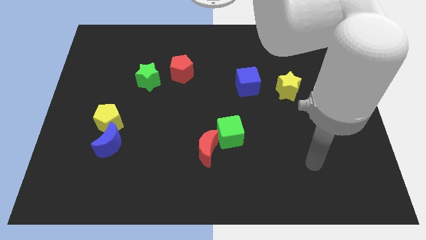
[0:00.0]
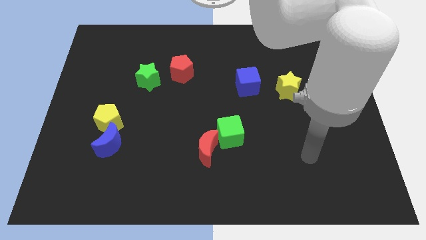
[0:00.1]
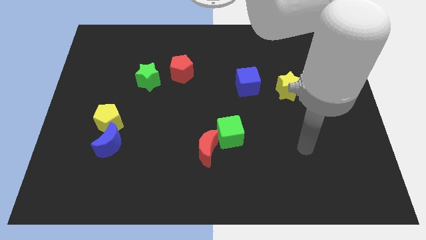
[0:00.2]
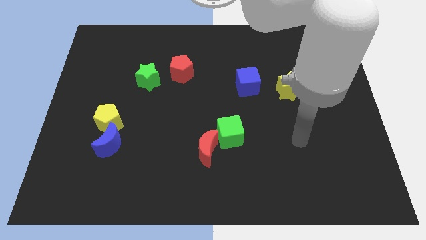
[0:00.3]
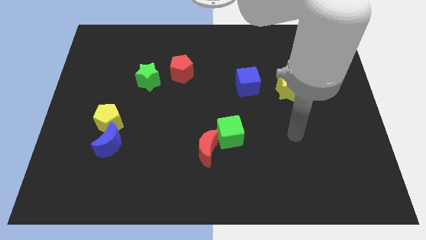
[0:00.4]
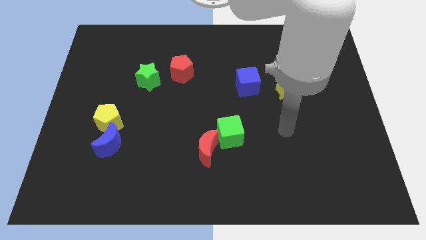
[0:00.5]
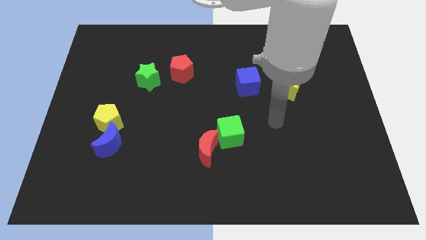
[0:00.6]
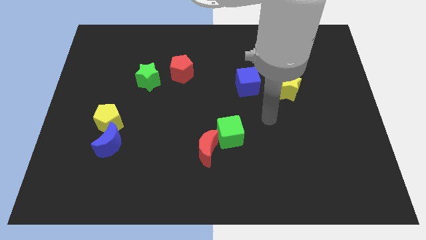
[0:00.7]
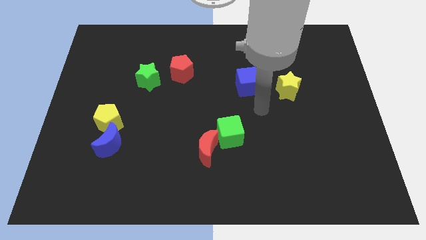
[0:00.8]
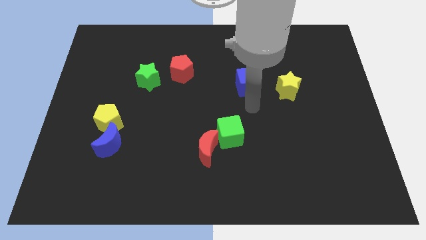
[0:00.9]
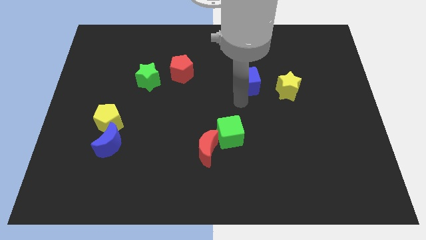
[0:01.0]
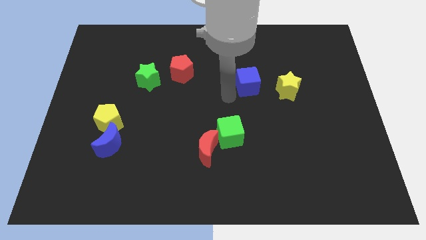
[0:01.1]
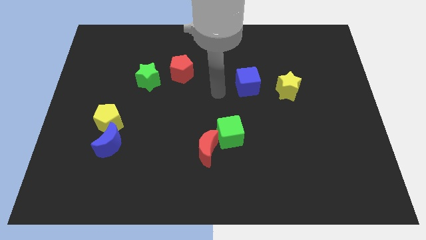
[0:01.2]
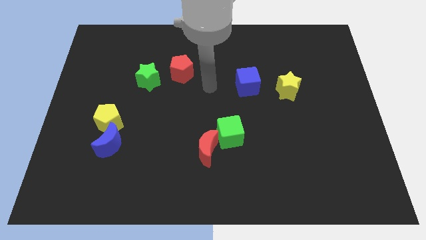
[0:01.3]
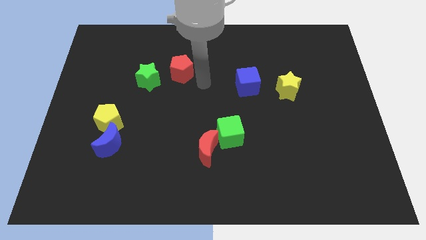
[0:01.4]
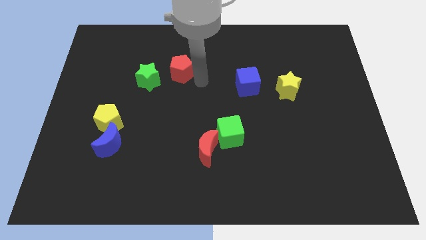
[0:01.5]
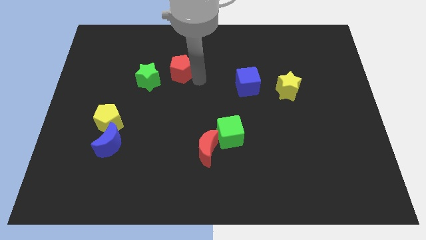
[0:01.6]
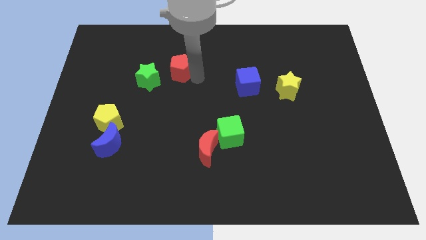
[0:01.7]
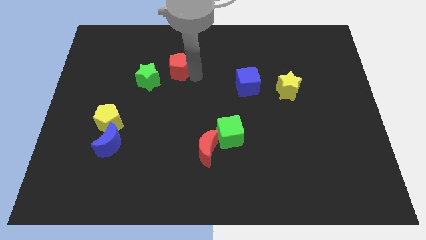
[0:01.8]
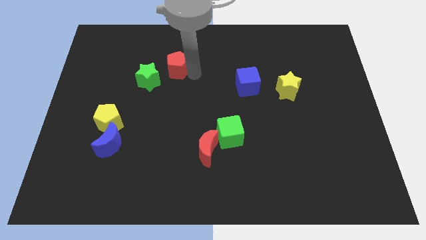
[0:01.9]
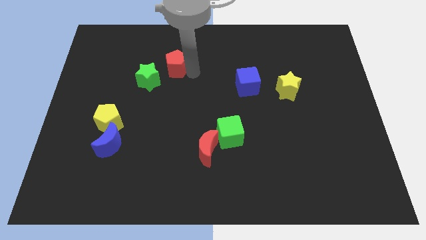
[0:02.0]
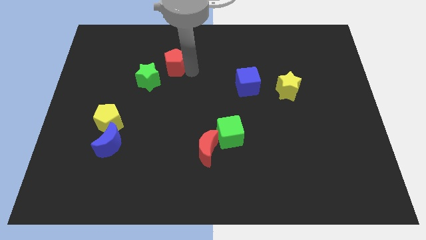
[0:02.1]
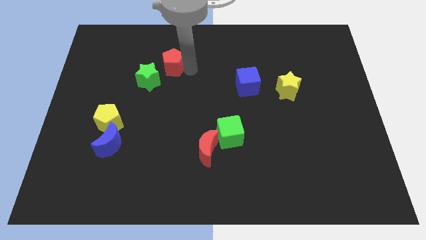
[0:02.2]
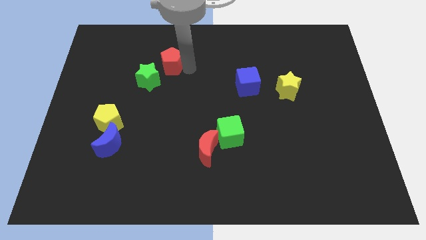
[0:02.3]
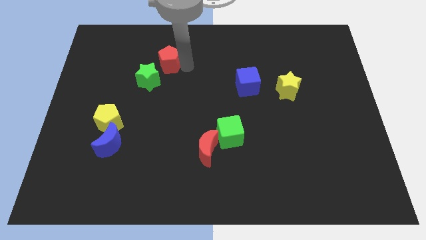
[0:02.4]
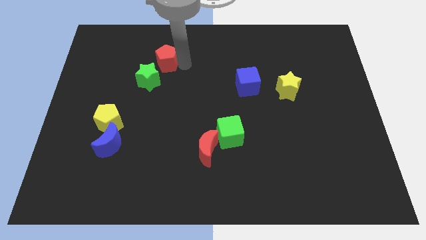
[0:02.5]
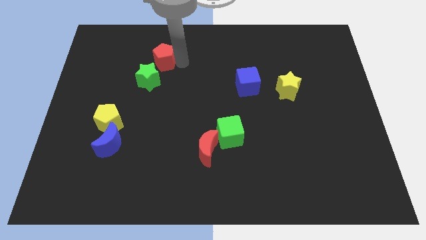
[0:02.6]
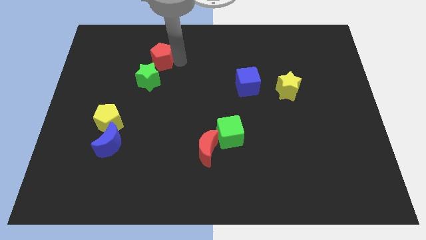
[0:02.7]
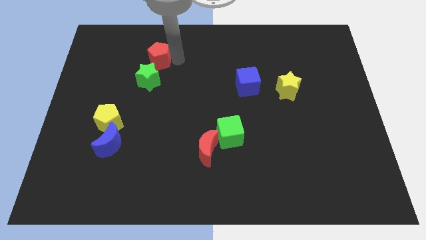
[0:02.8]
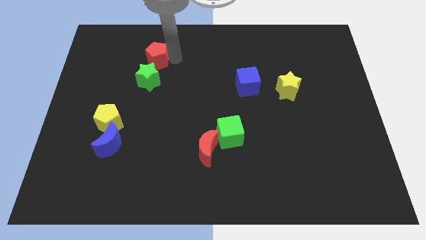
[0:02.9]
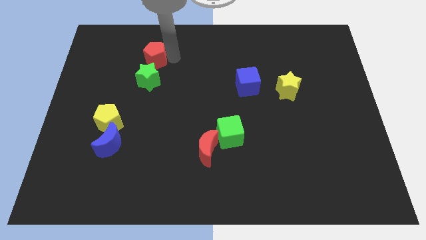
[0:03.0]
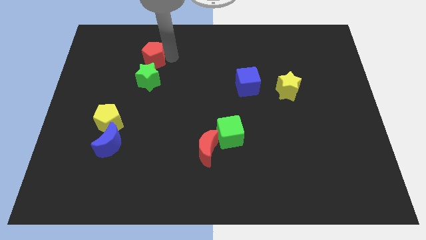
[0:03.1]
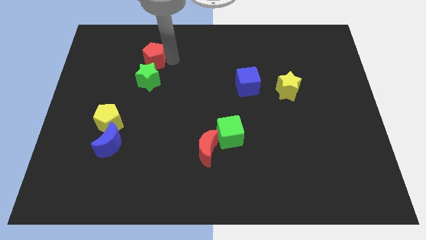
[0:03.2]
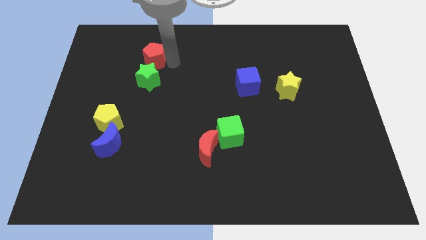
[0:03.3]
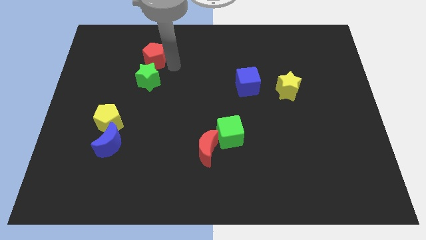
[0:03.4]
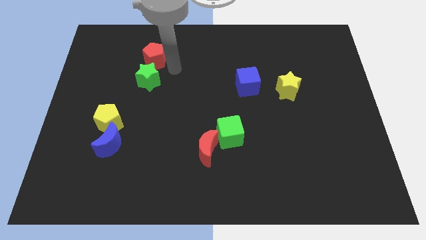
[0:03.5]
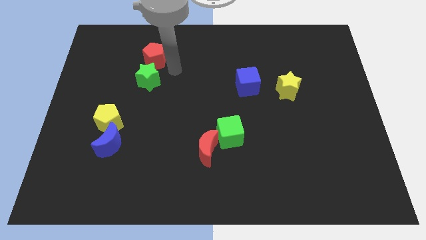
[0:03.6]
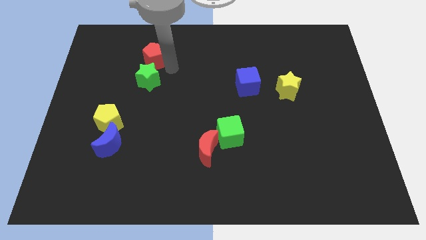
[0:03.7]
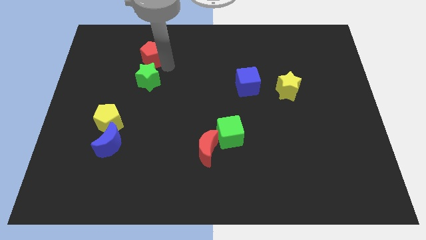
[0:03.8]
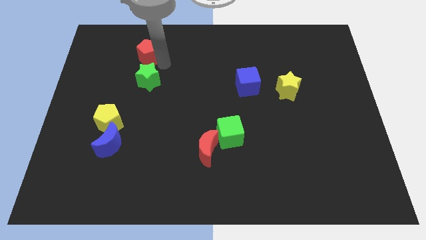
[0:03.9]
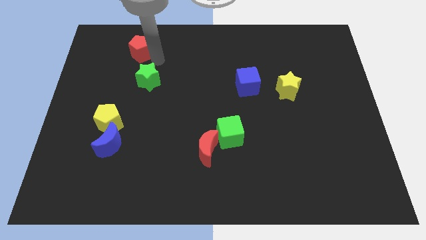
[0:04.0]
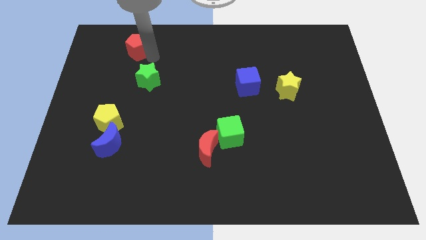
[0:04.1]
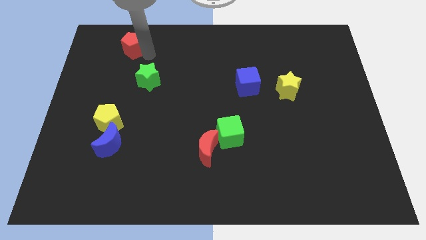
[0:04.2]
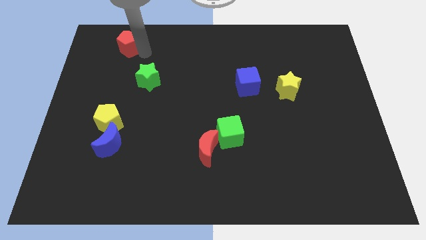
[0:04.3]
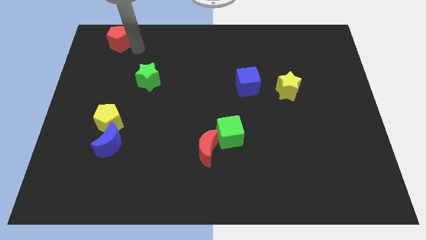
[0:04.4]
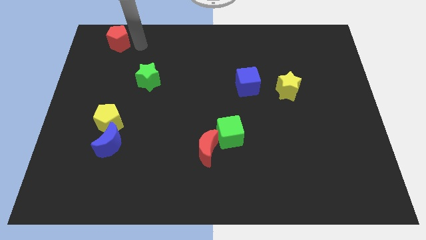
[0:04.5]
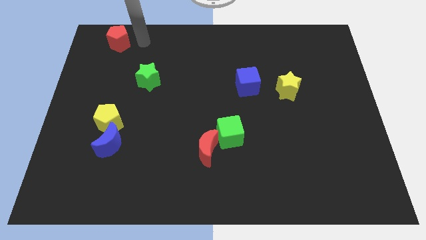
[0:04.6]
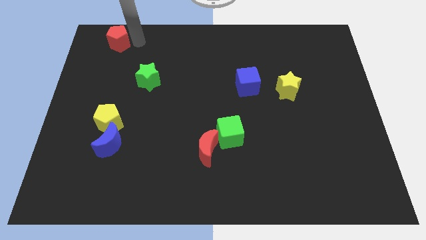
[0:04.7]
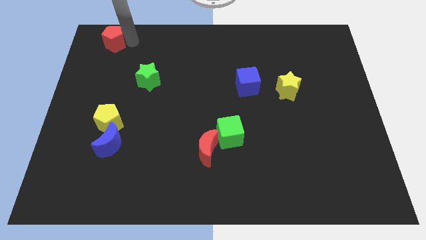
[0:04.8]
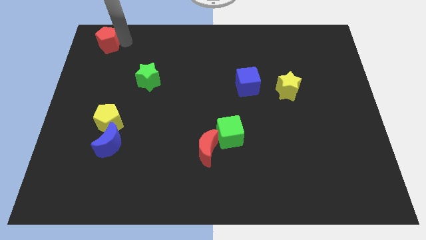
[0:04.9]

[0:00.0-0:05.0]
slide the red pentagon to the top left corner

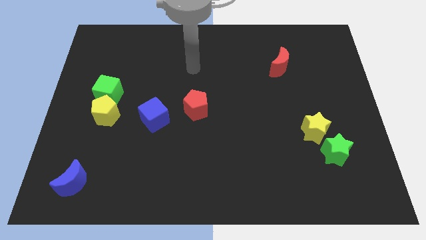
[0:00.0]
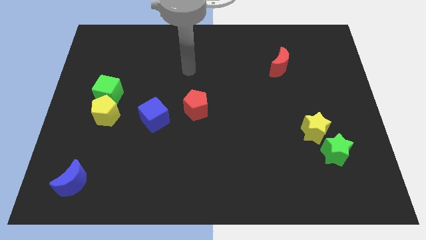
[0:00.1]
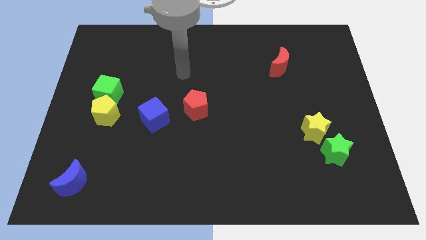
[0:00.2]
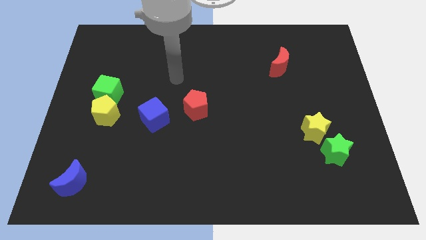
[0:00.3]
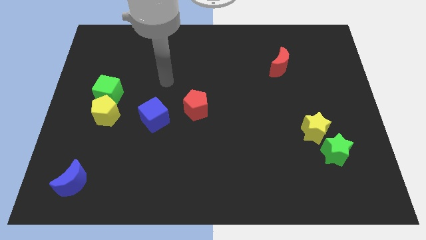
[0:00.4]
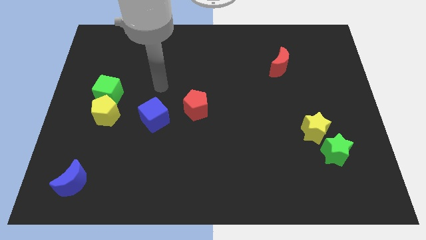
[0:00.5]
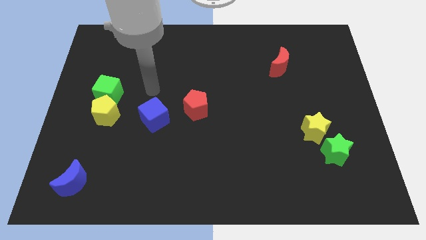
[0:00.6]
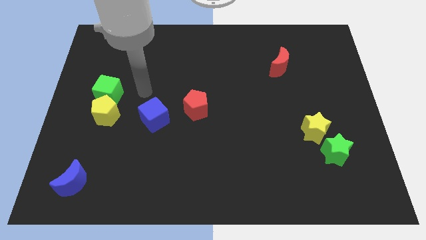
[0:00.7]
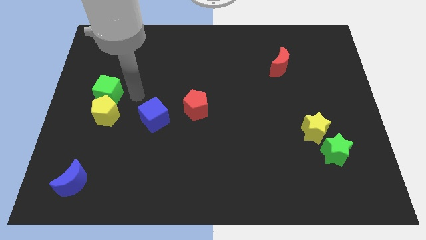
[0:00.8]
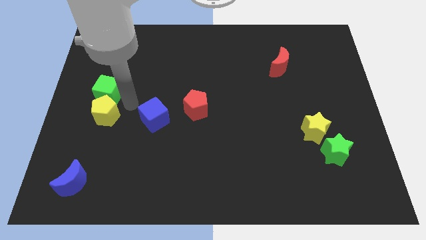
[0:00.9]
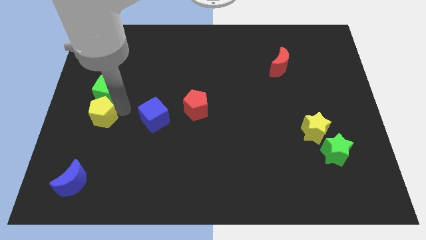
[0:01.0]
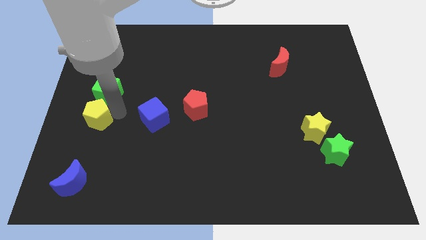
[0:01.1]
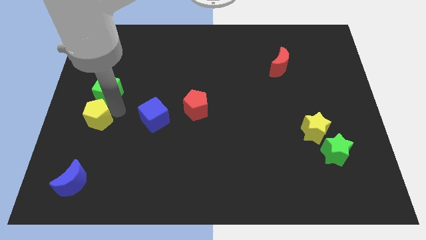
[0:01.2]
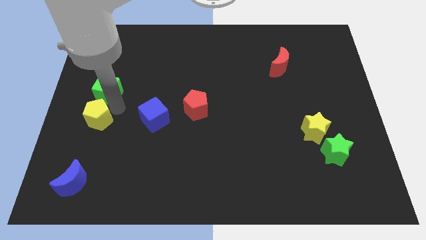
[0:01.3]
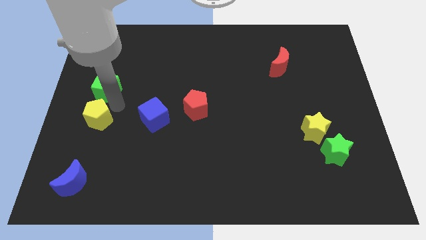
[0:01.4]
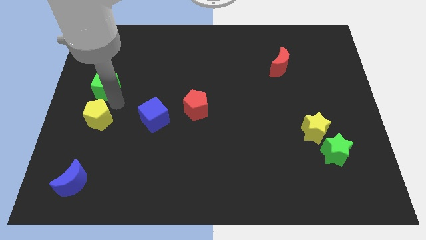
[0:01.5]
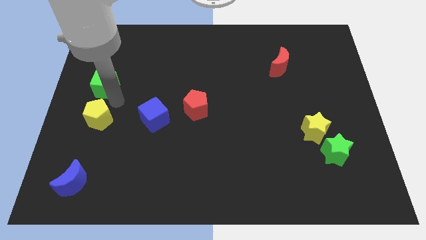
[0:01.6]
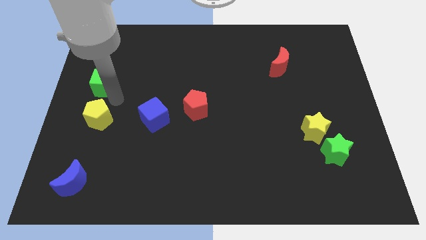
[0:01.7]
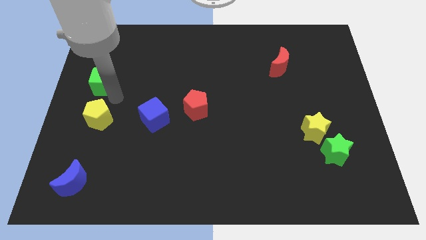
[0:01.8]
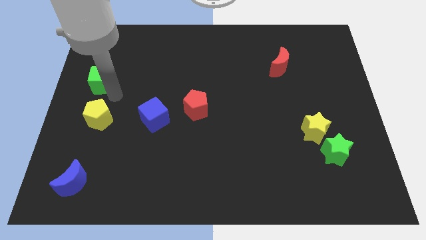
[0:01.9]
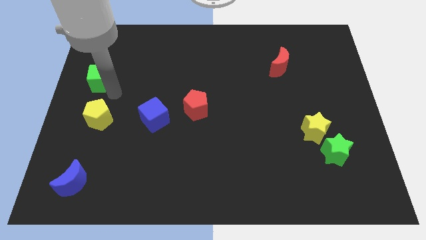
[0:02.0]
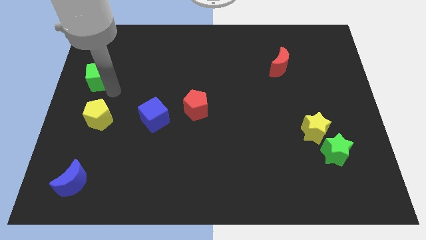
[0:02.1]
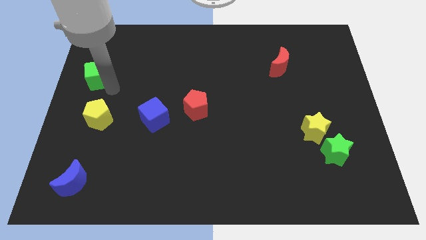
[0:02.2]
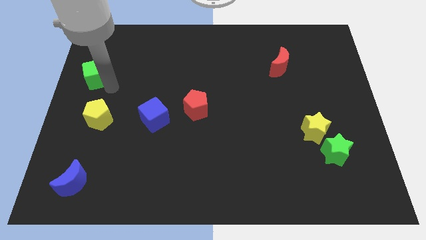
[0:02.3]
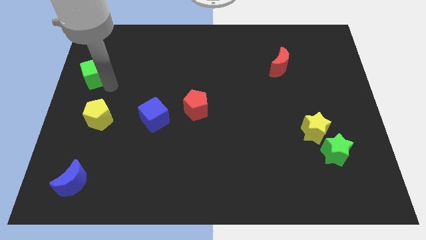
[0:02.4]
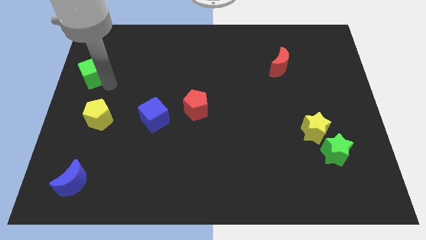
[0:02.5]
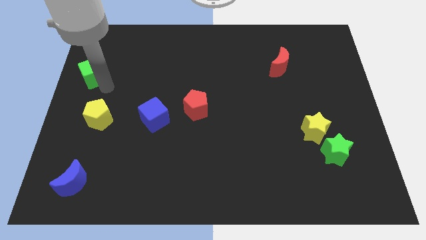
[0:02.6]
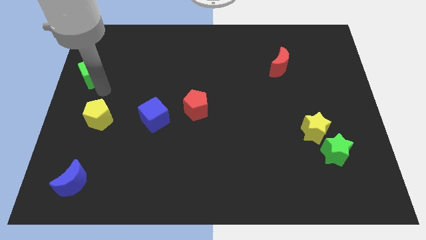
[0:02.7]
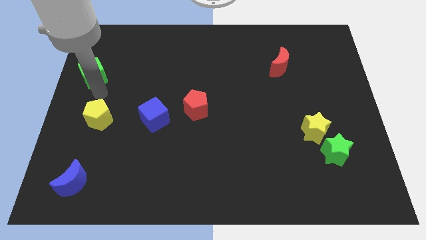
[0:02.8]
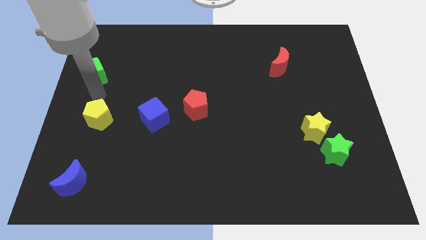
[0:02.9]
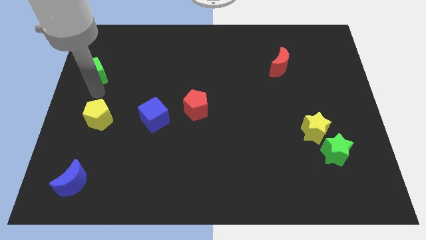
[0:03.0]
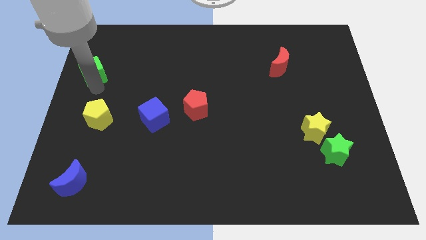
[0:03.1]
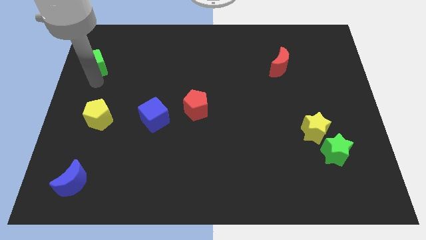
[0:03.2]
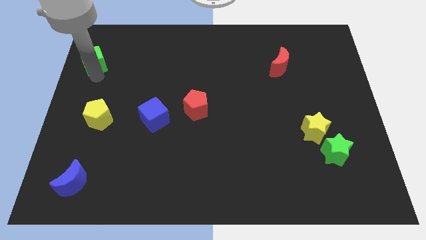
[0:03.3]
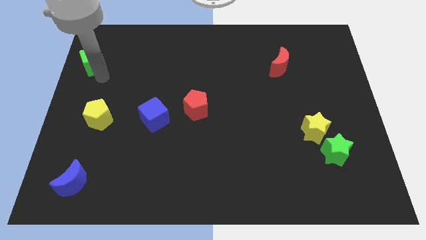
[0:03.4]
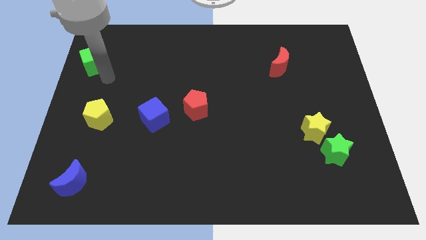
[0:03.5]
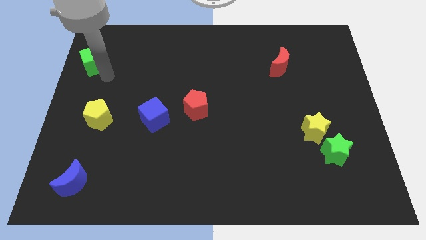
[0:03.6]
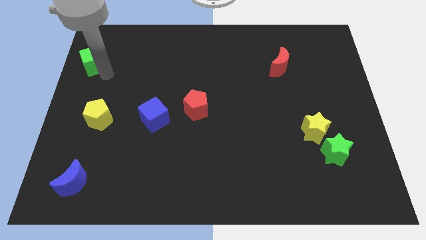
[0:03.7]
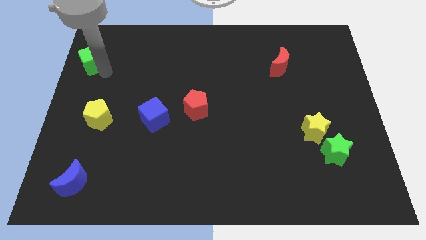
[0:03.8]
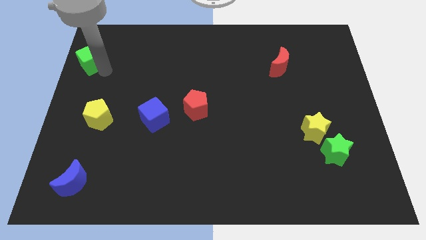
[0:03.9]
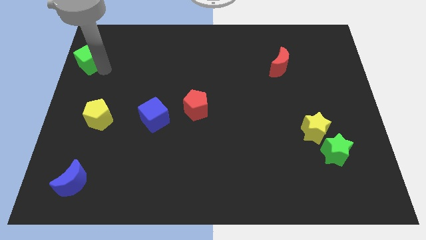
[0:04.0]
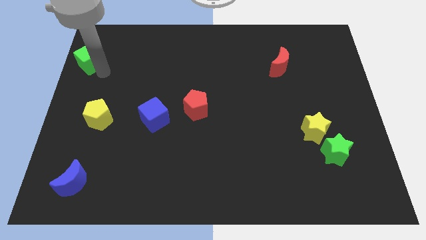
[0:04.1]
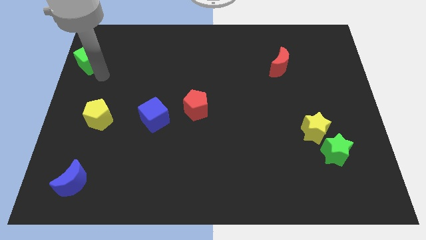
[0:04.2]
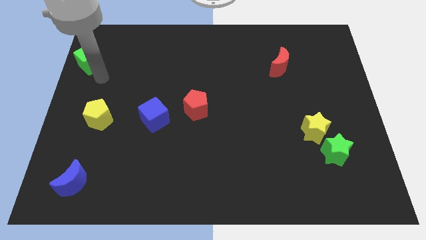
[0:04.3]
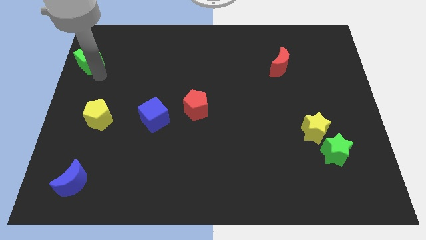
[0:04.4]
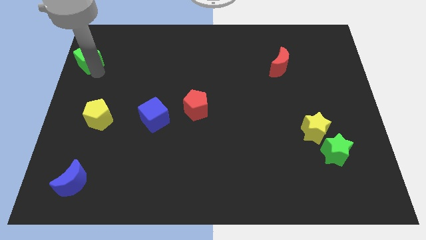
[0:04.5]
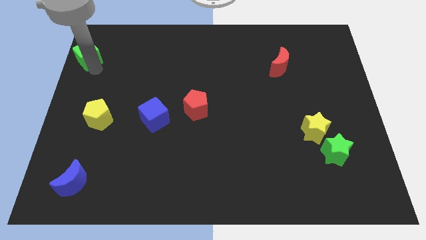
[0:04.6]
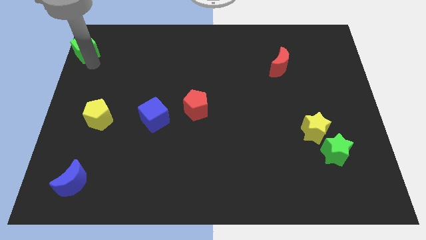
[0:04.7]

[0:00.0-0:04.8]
move the green cube to the top left corner
